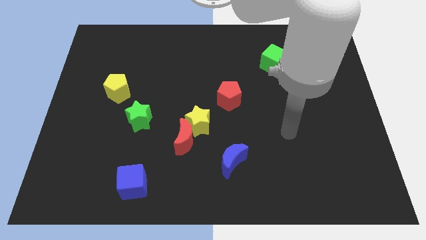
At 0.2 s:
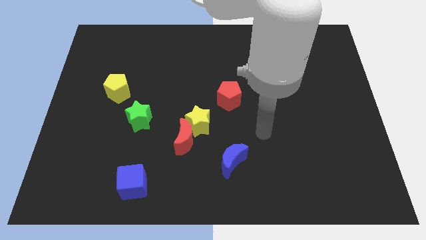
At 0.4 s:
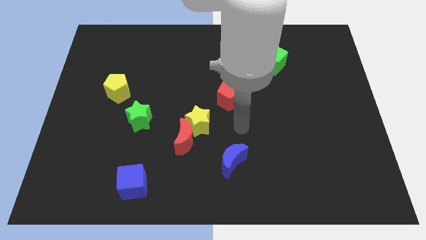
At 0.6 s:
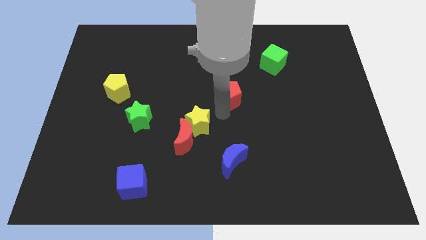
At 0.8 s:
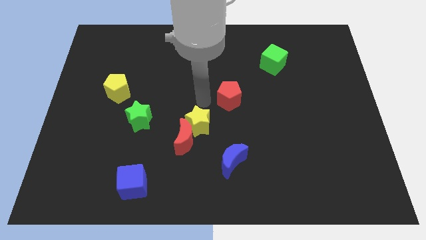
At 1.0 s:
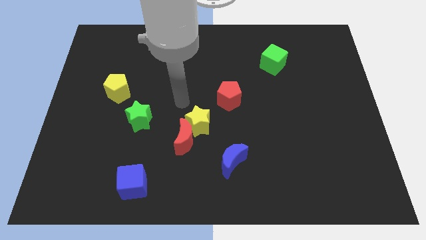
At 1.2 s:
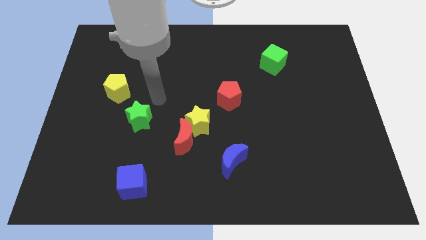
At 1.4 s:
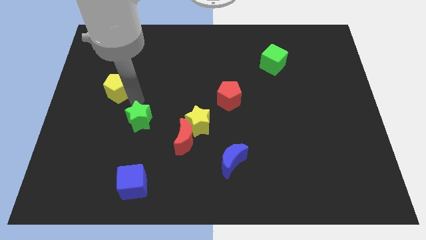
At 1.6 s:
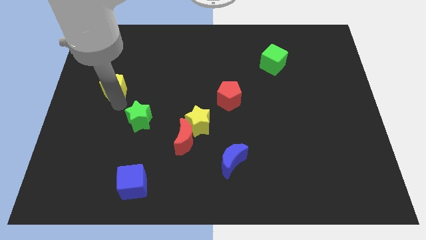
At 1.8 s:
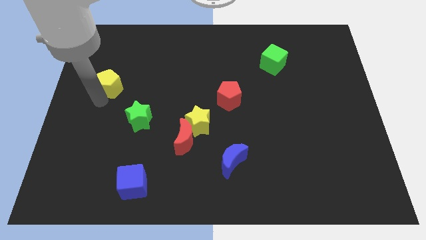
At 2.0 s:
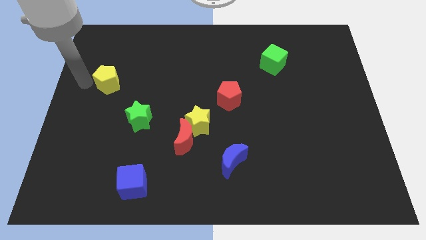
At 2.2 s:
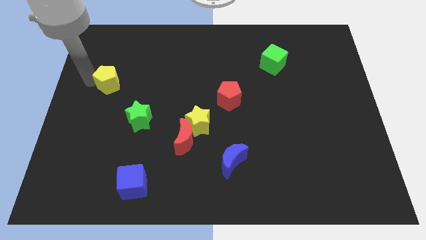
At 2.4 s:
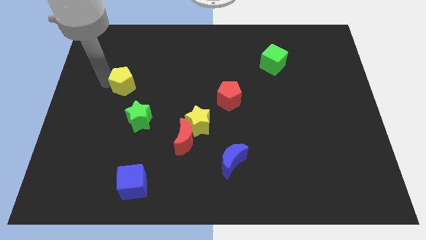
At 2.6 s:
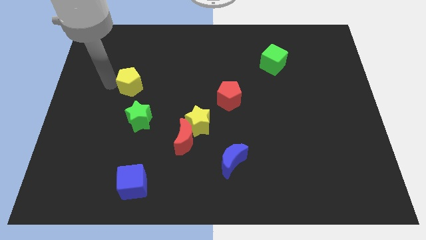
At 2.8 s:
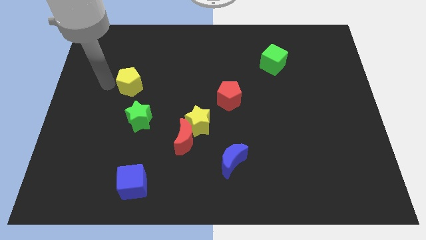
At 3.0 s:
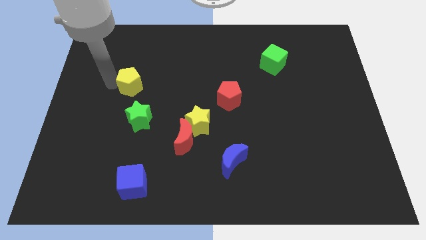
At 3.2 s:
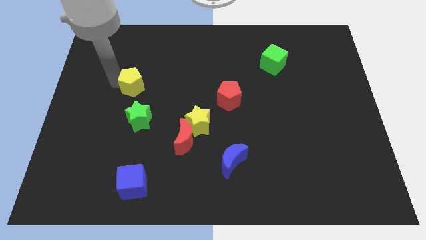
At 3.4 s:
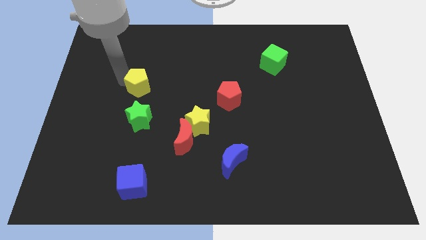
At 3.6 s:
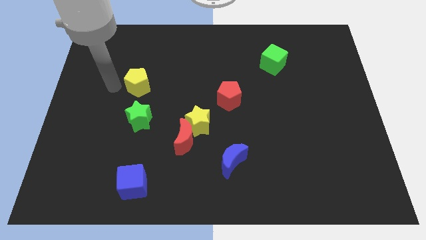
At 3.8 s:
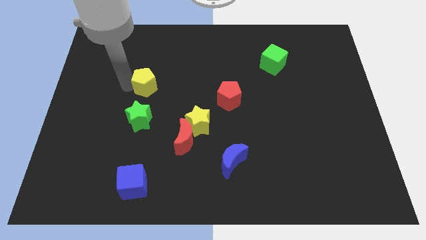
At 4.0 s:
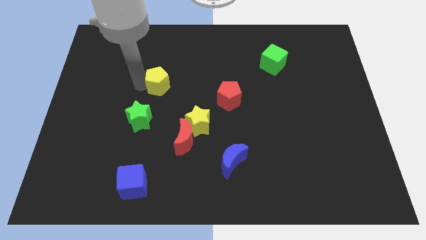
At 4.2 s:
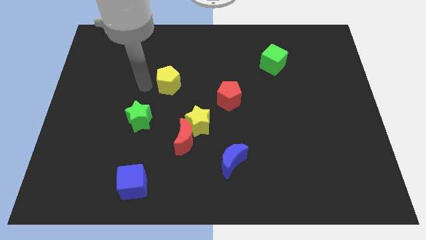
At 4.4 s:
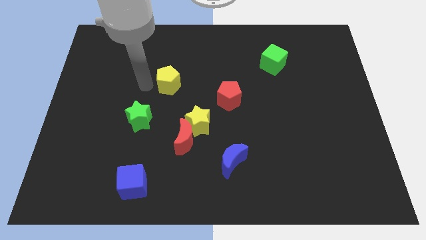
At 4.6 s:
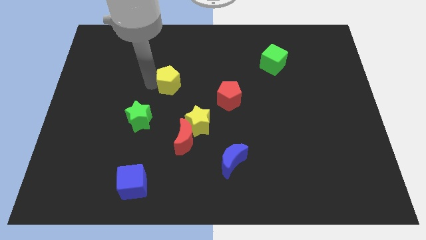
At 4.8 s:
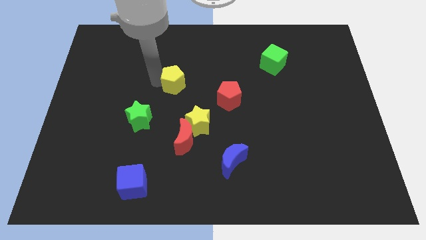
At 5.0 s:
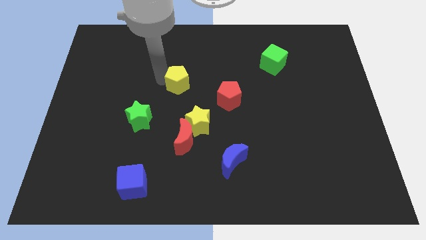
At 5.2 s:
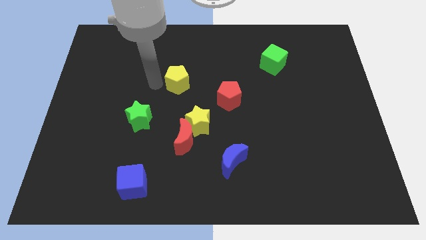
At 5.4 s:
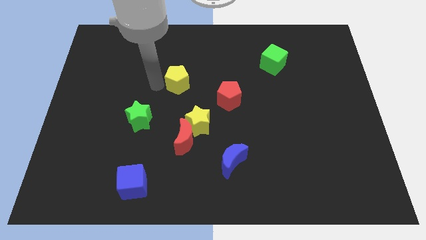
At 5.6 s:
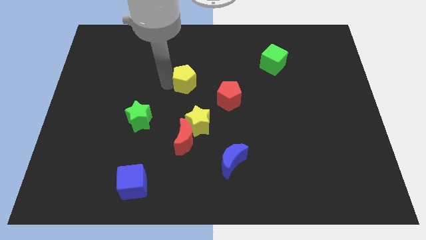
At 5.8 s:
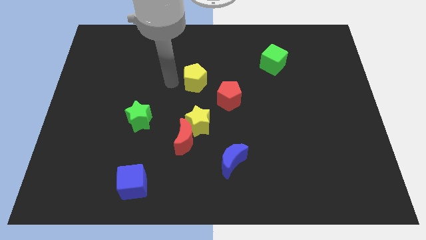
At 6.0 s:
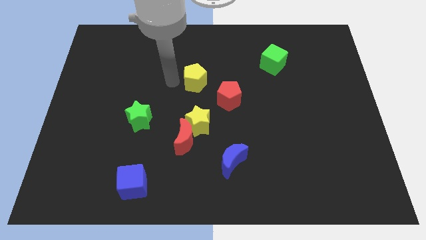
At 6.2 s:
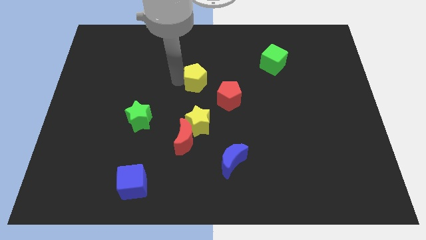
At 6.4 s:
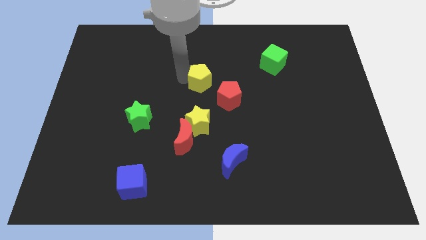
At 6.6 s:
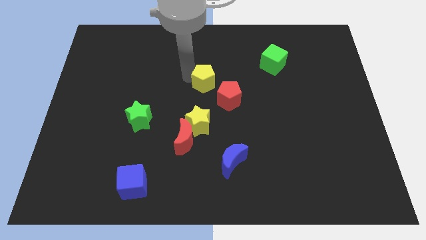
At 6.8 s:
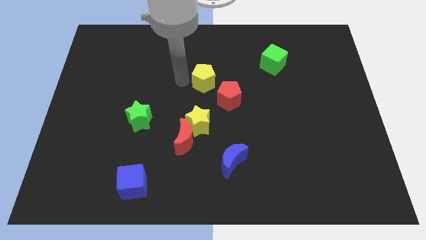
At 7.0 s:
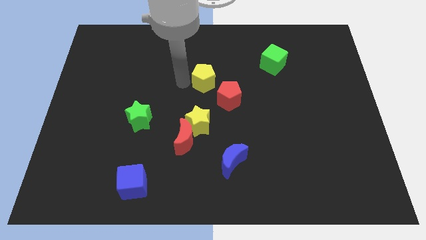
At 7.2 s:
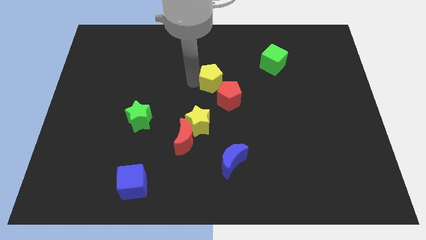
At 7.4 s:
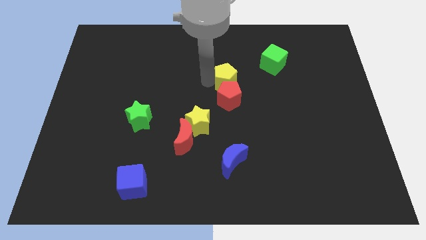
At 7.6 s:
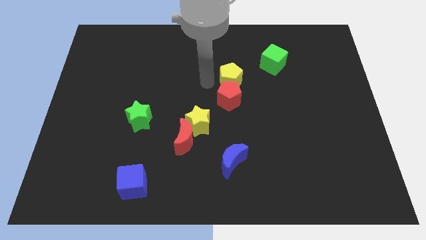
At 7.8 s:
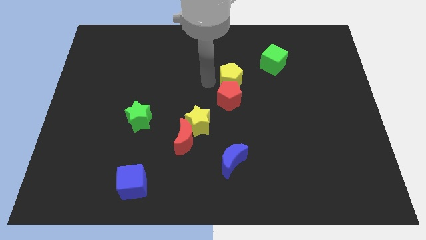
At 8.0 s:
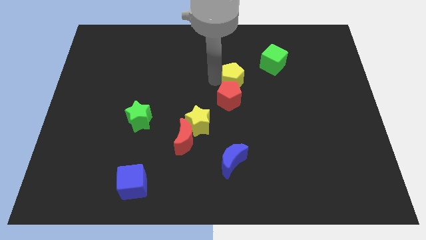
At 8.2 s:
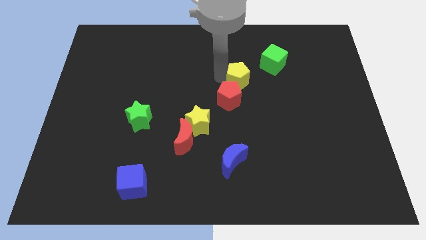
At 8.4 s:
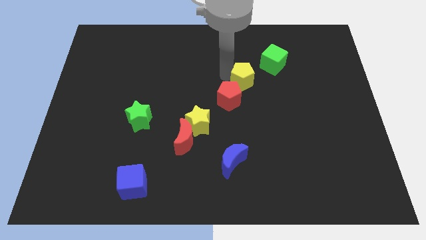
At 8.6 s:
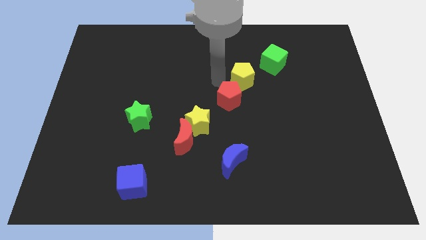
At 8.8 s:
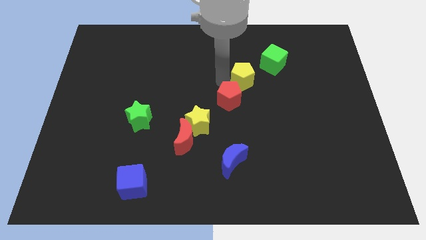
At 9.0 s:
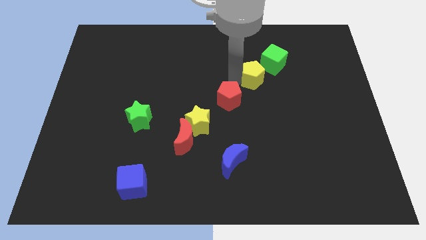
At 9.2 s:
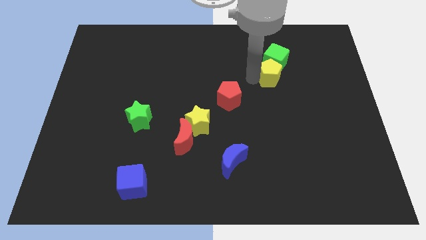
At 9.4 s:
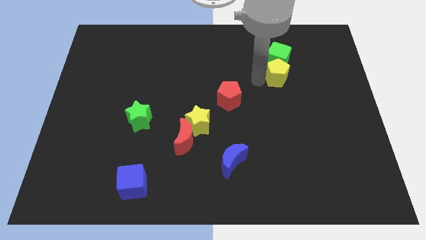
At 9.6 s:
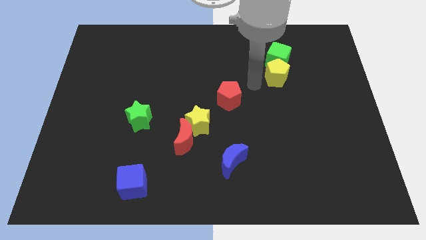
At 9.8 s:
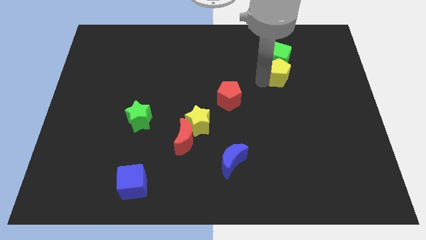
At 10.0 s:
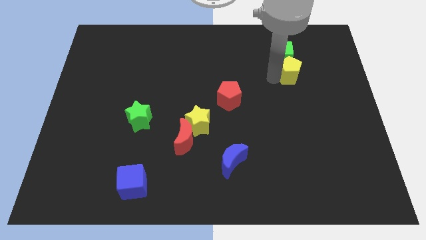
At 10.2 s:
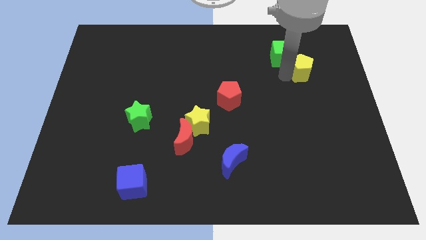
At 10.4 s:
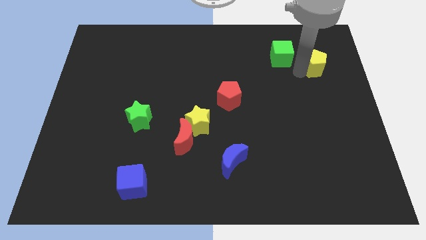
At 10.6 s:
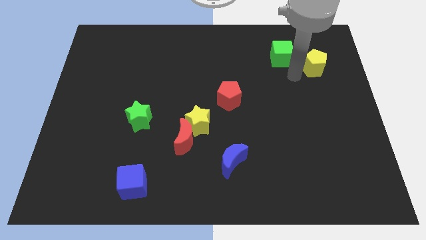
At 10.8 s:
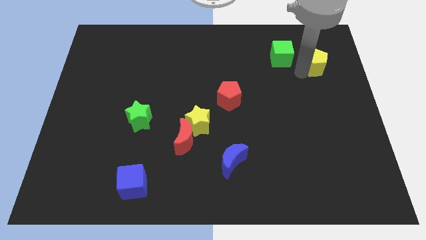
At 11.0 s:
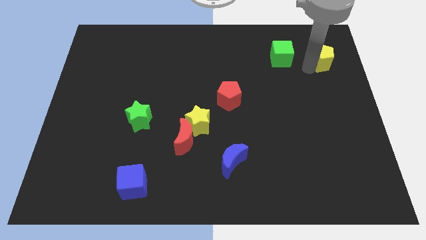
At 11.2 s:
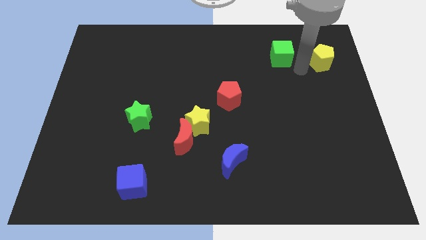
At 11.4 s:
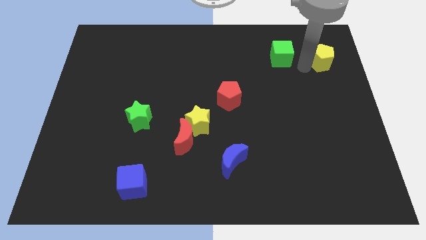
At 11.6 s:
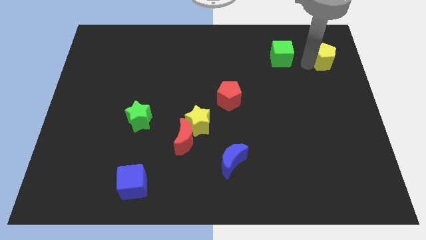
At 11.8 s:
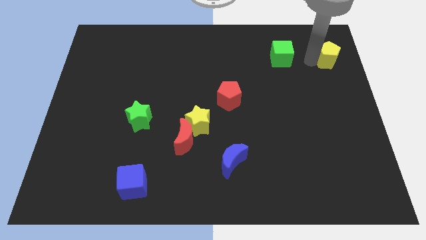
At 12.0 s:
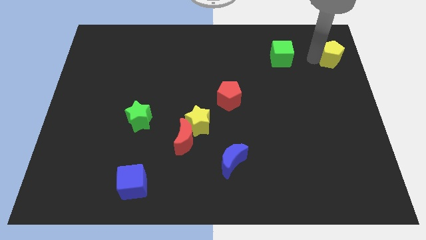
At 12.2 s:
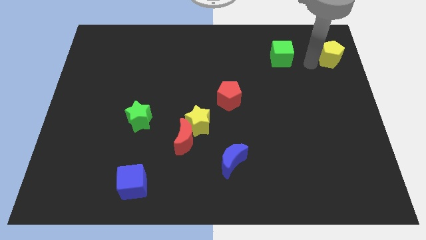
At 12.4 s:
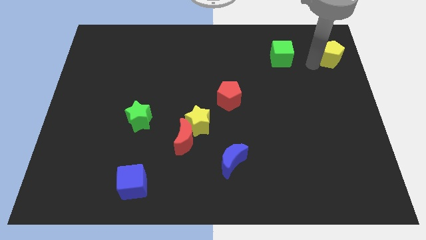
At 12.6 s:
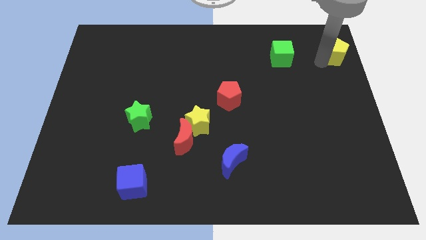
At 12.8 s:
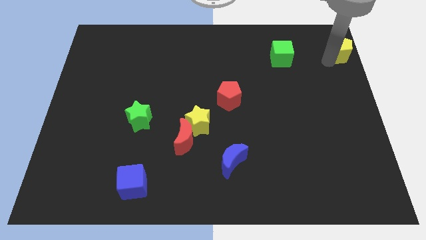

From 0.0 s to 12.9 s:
put the yellow pentagon to the top right
